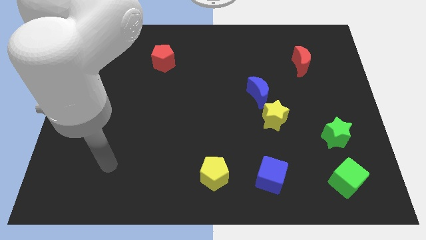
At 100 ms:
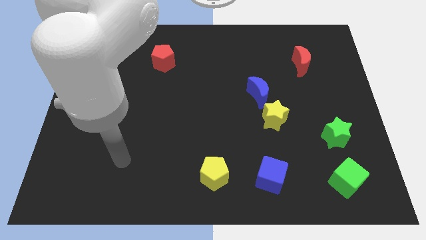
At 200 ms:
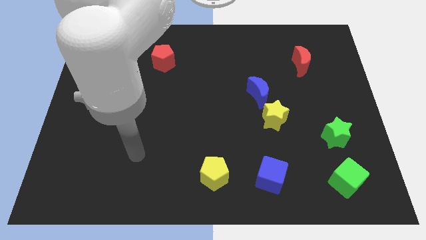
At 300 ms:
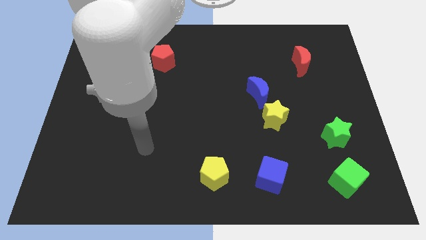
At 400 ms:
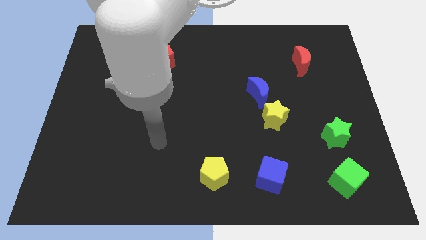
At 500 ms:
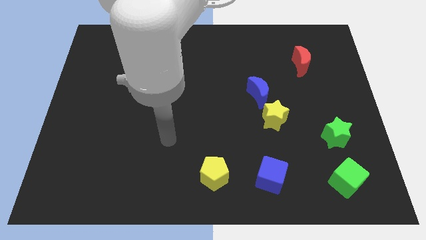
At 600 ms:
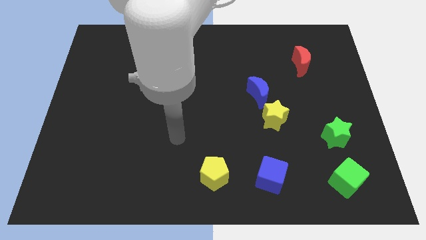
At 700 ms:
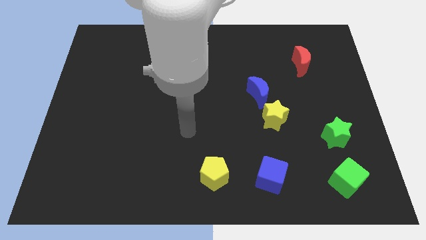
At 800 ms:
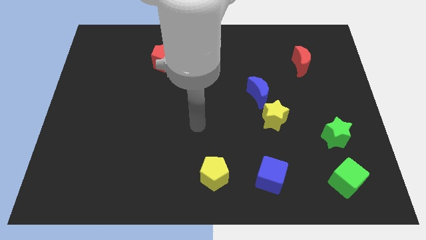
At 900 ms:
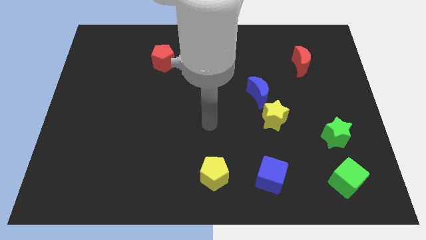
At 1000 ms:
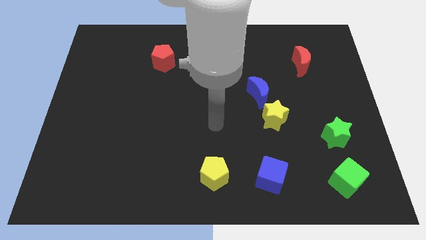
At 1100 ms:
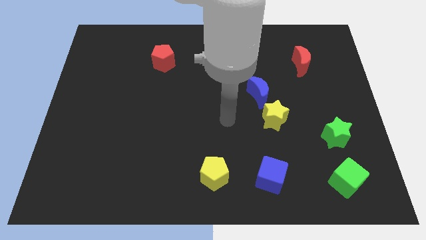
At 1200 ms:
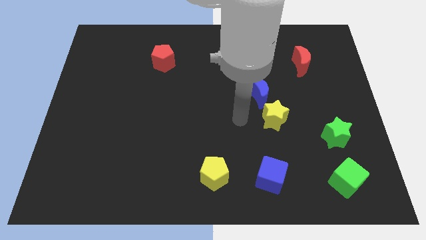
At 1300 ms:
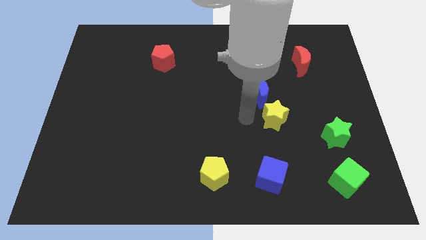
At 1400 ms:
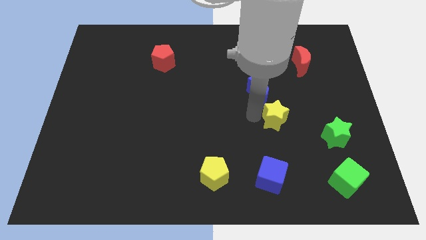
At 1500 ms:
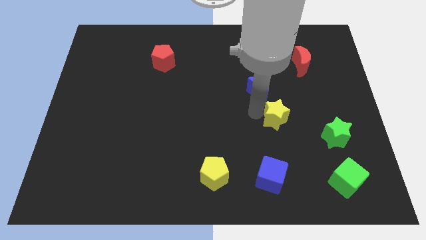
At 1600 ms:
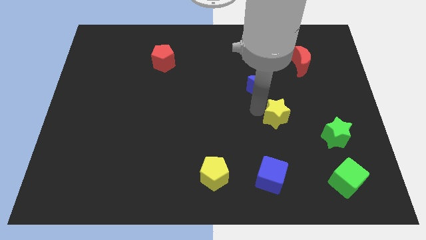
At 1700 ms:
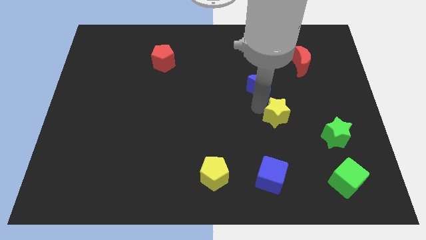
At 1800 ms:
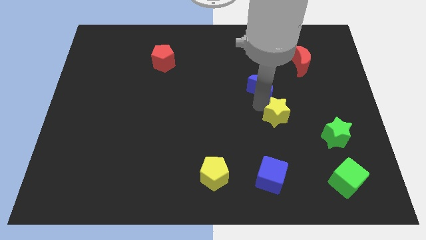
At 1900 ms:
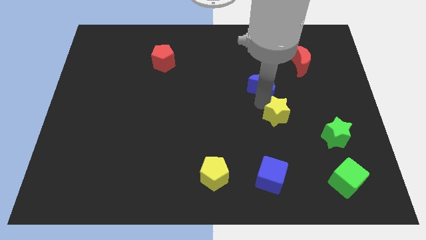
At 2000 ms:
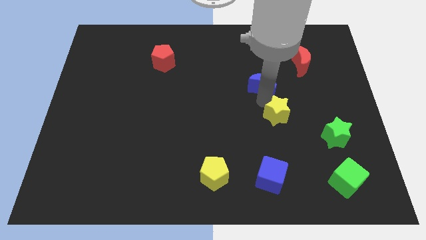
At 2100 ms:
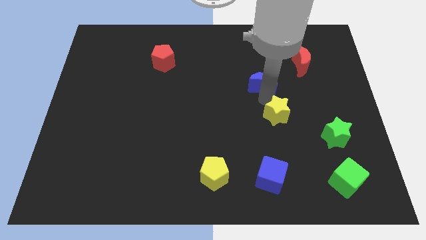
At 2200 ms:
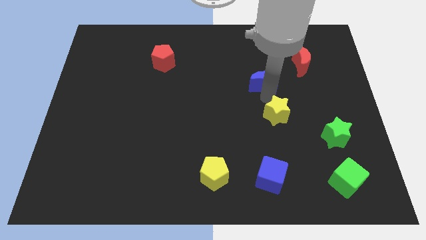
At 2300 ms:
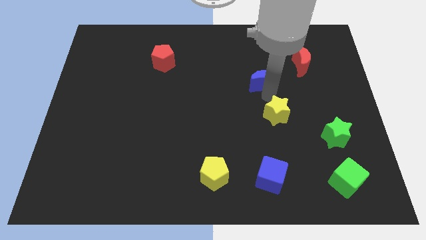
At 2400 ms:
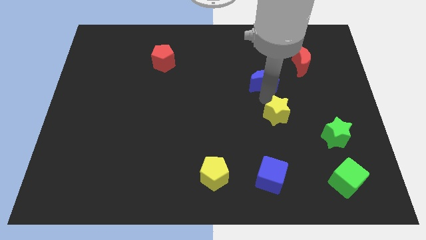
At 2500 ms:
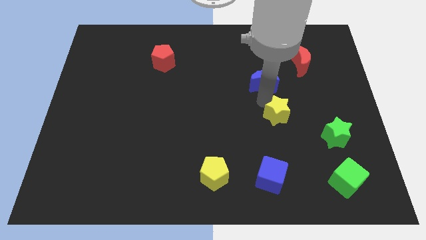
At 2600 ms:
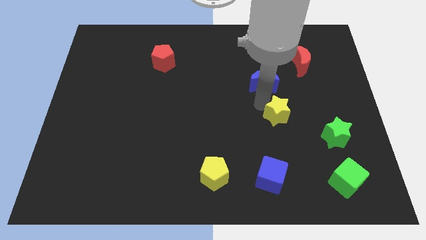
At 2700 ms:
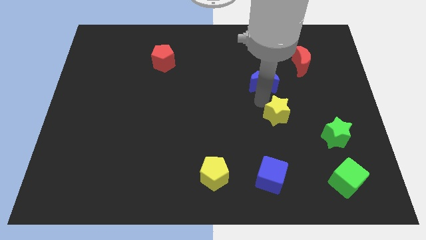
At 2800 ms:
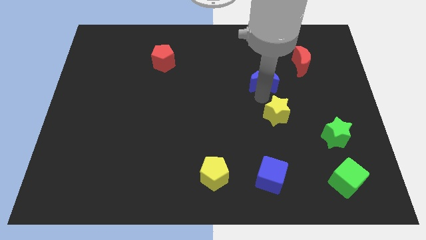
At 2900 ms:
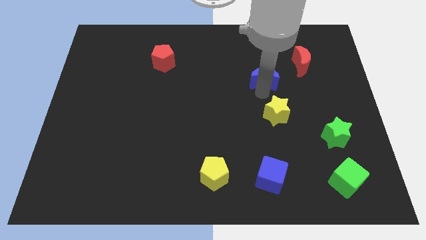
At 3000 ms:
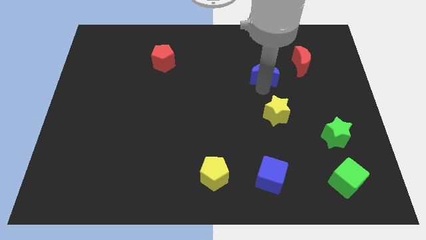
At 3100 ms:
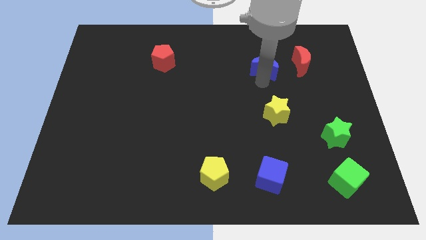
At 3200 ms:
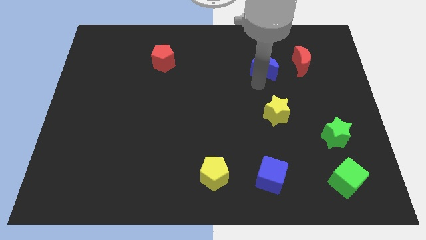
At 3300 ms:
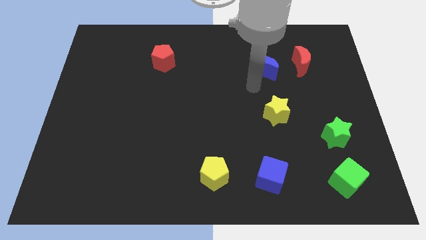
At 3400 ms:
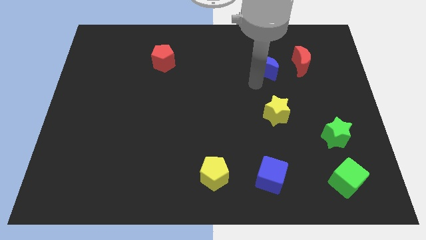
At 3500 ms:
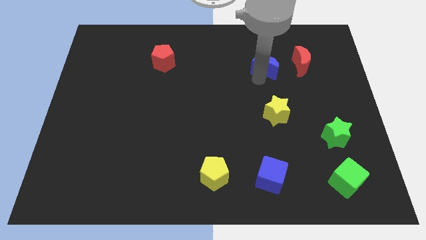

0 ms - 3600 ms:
slightly move the blue moon up and then to the right

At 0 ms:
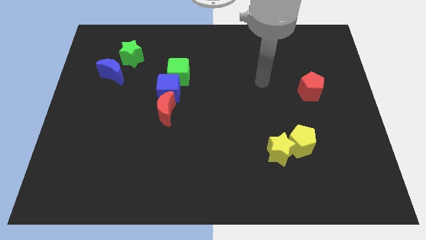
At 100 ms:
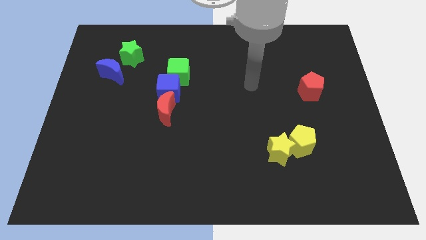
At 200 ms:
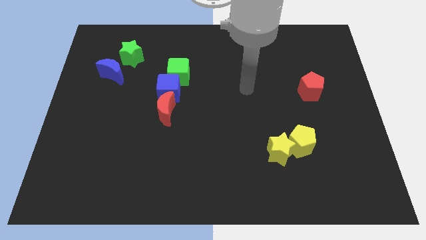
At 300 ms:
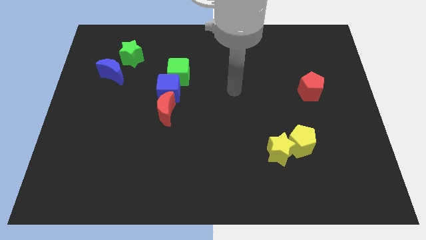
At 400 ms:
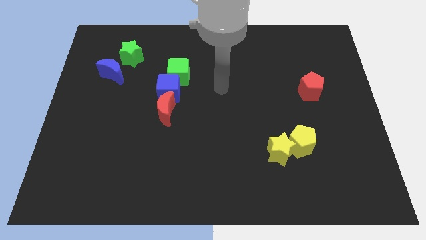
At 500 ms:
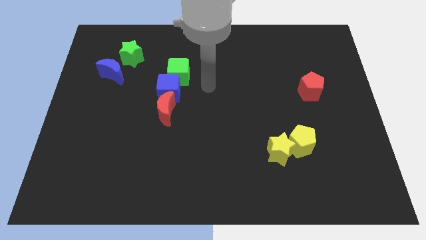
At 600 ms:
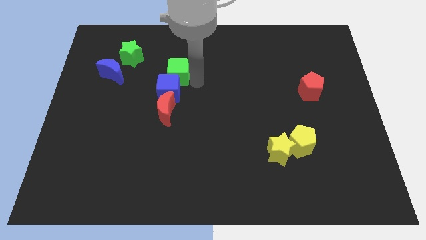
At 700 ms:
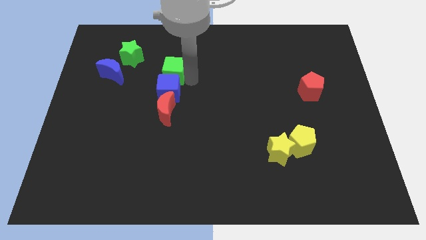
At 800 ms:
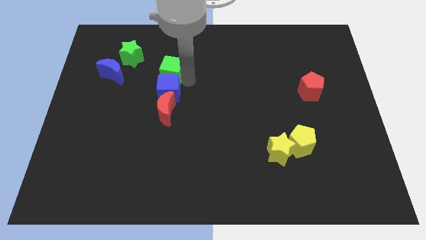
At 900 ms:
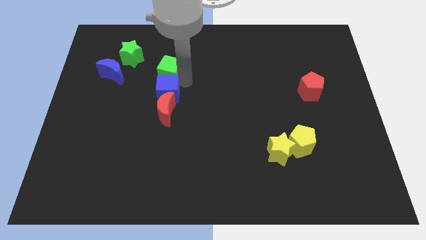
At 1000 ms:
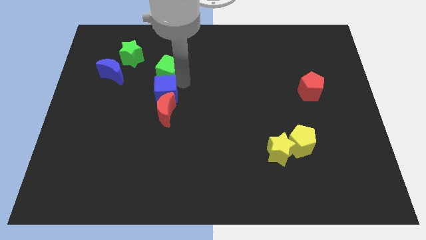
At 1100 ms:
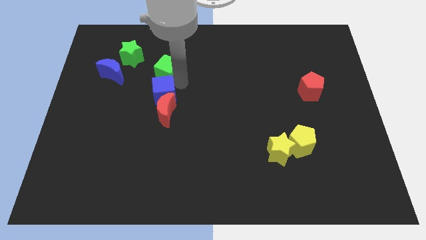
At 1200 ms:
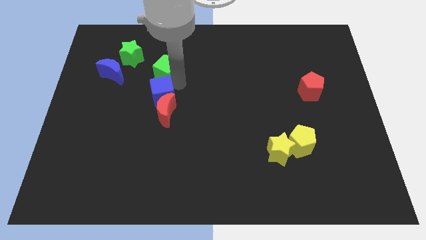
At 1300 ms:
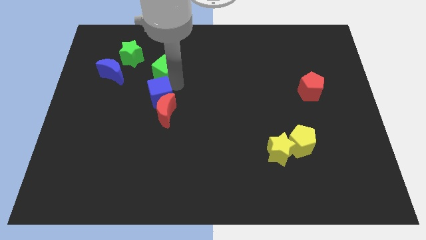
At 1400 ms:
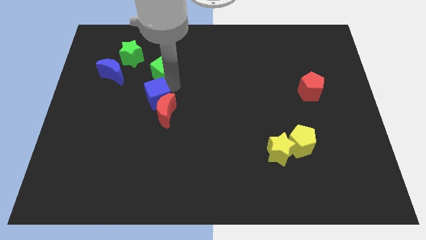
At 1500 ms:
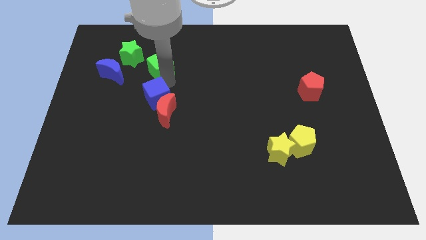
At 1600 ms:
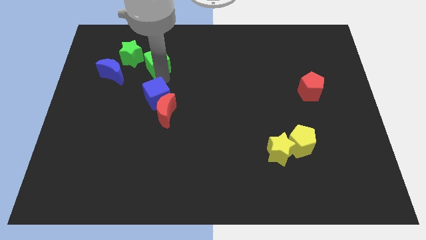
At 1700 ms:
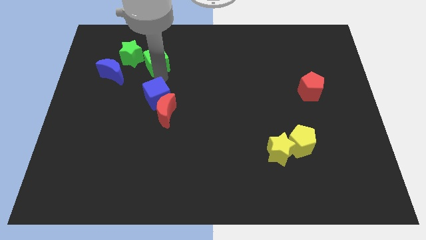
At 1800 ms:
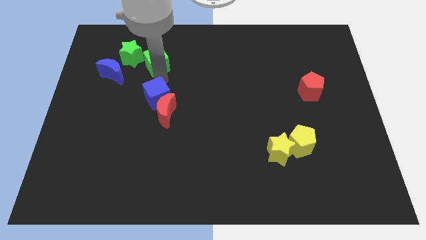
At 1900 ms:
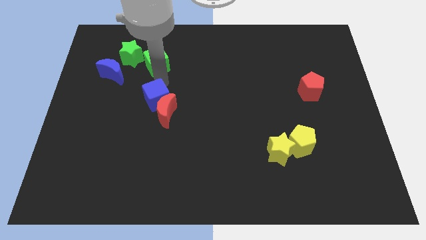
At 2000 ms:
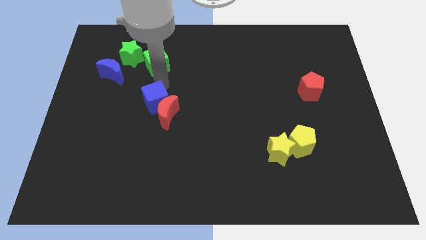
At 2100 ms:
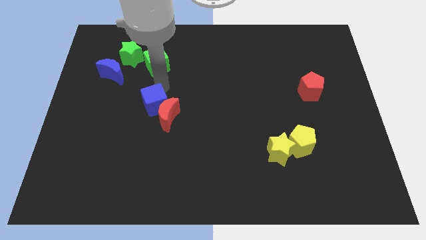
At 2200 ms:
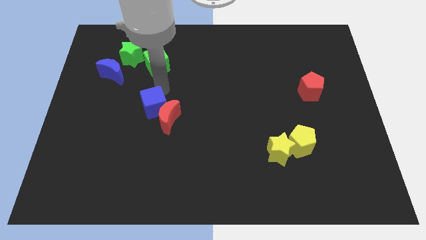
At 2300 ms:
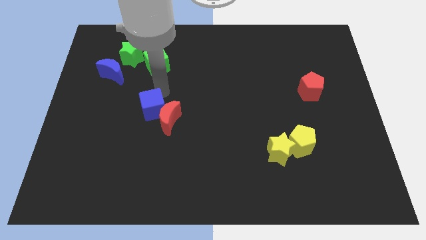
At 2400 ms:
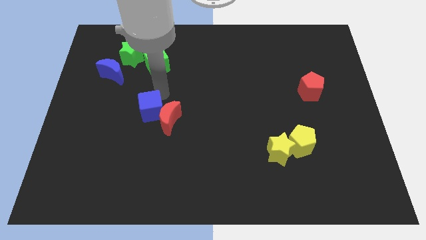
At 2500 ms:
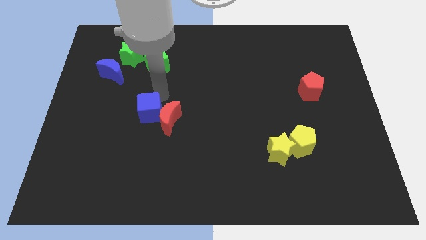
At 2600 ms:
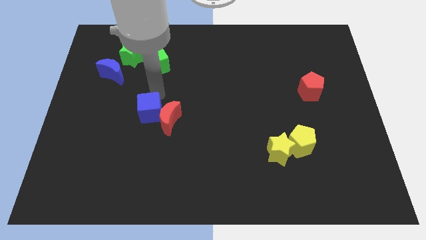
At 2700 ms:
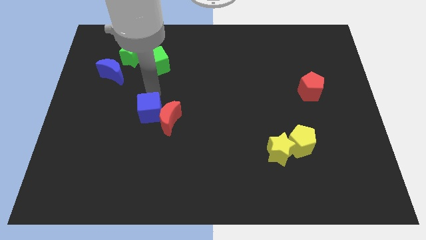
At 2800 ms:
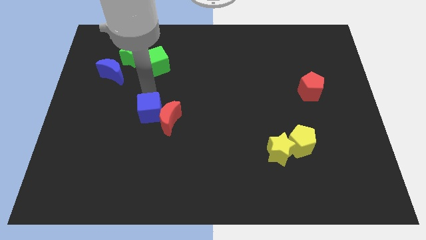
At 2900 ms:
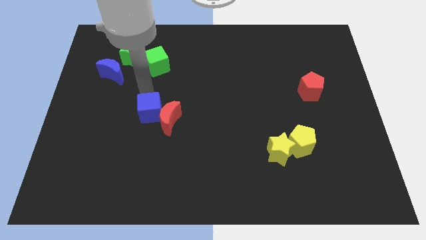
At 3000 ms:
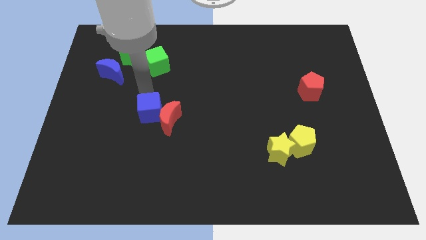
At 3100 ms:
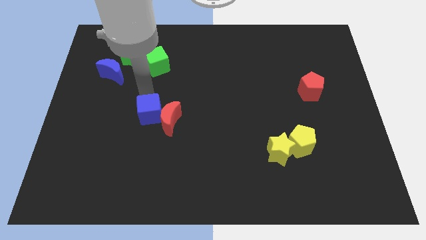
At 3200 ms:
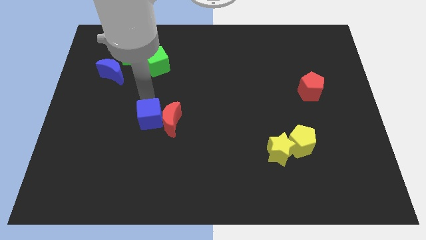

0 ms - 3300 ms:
move the blue cube somewhat downwards

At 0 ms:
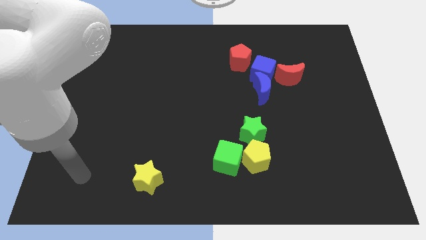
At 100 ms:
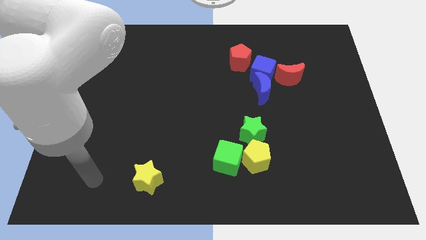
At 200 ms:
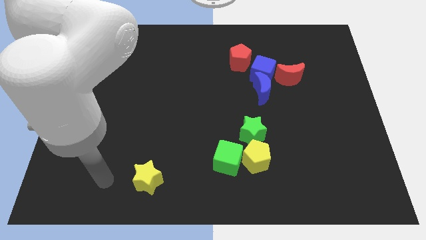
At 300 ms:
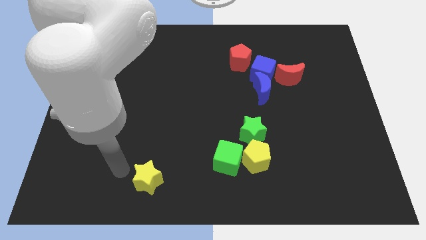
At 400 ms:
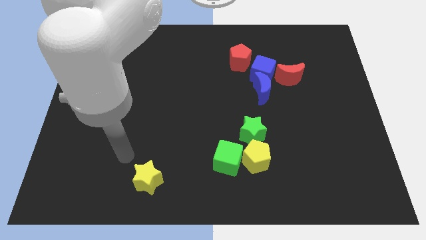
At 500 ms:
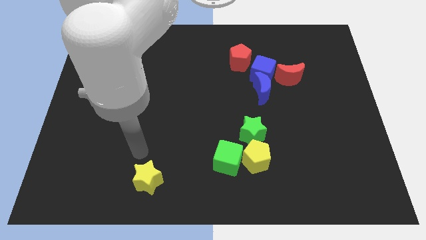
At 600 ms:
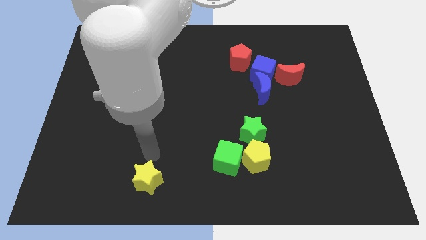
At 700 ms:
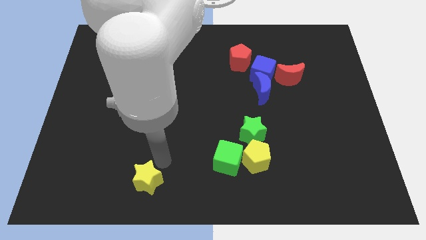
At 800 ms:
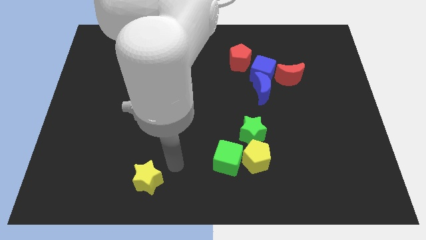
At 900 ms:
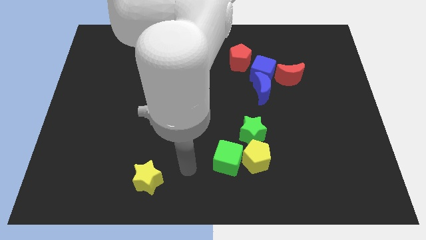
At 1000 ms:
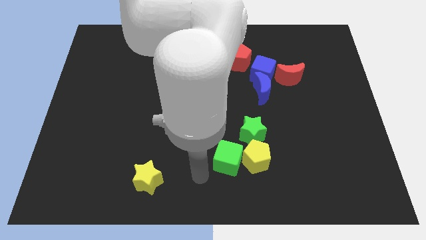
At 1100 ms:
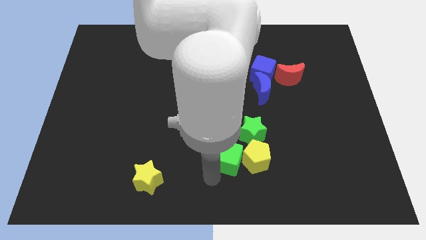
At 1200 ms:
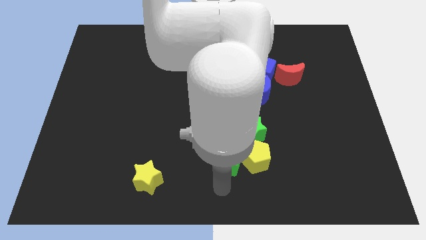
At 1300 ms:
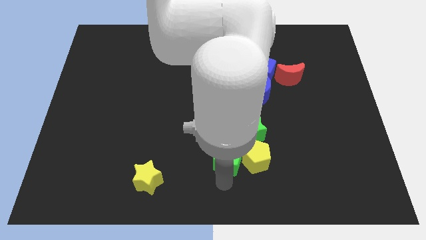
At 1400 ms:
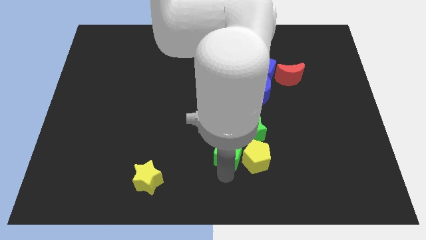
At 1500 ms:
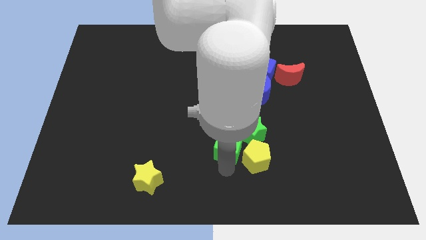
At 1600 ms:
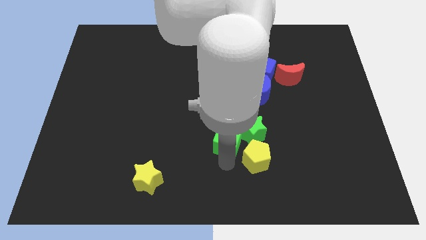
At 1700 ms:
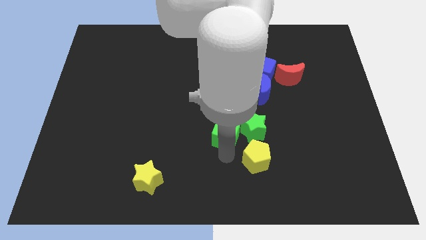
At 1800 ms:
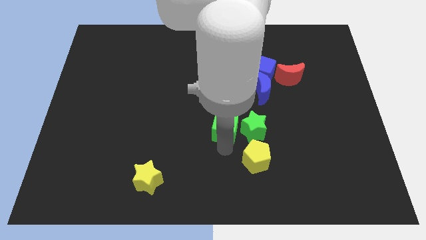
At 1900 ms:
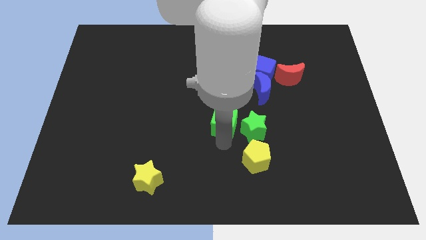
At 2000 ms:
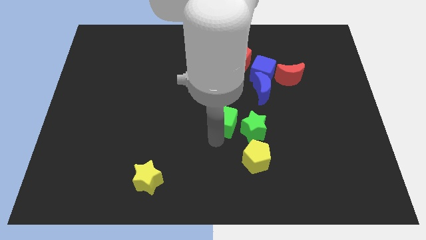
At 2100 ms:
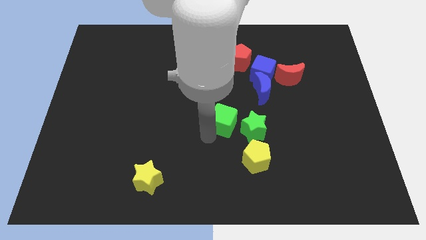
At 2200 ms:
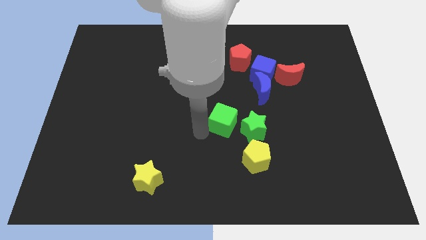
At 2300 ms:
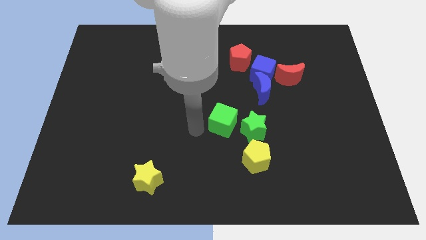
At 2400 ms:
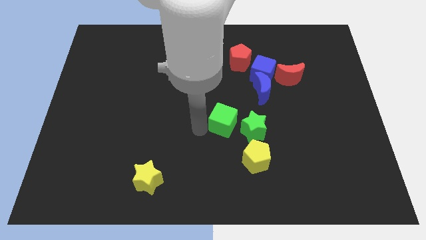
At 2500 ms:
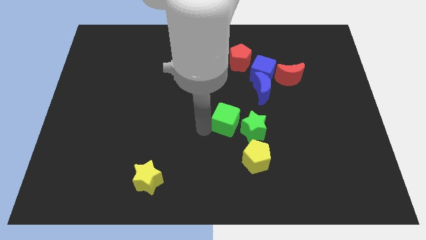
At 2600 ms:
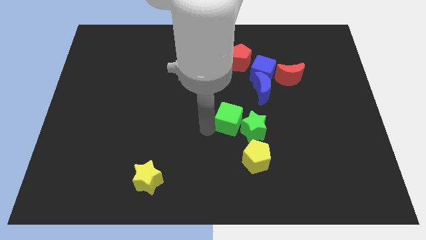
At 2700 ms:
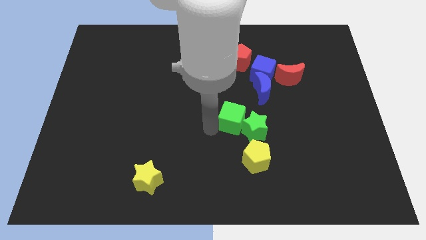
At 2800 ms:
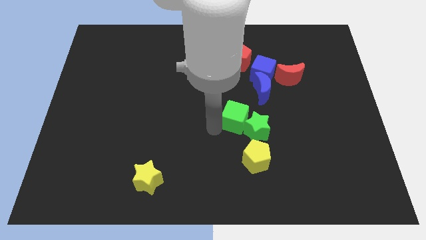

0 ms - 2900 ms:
push the green cube somewhat diagonally up and to the right
